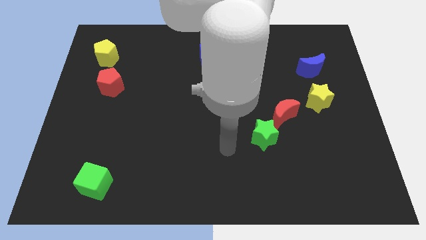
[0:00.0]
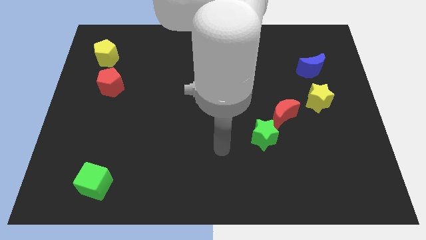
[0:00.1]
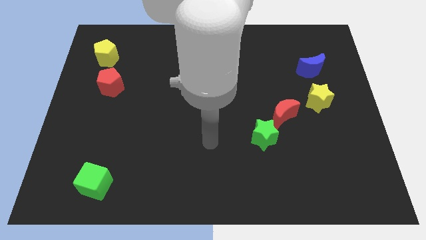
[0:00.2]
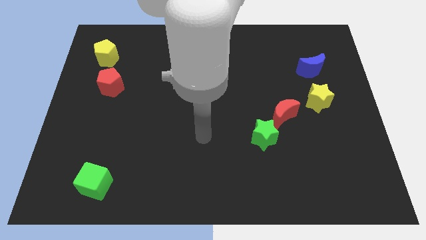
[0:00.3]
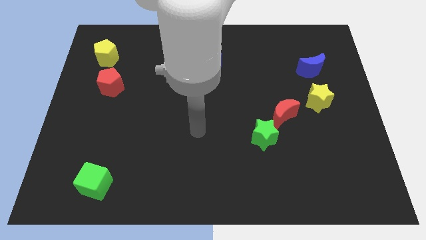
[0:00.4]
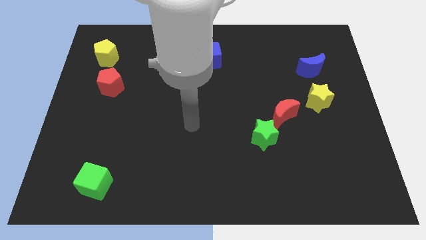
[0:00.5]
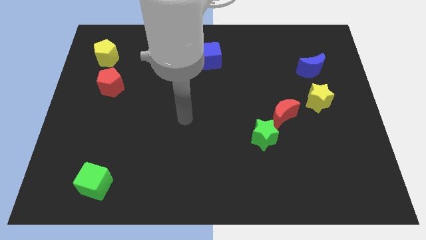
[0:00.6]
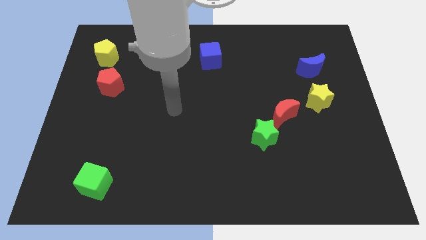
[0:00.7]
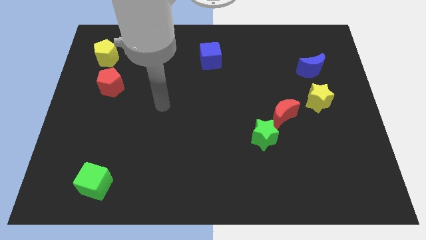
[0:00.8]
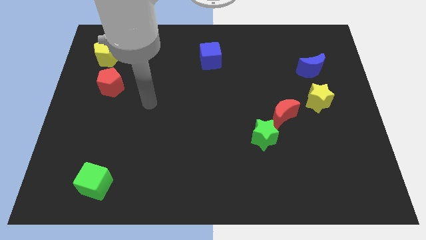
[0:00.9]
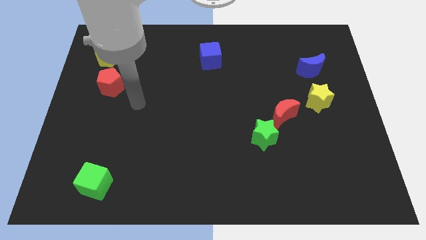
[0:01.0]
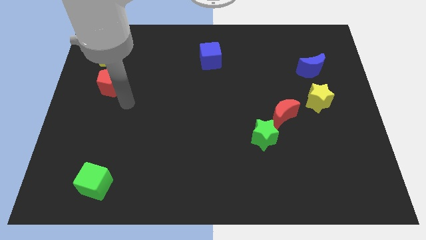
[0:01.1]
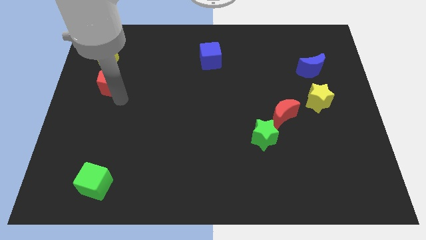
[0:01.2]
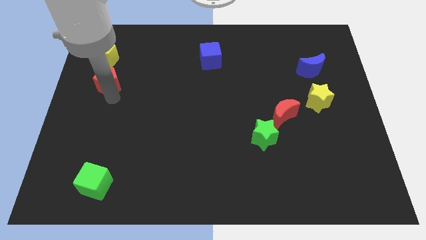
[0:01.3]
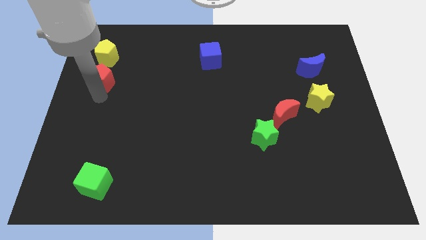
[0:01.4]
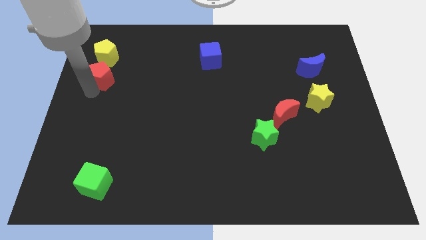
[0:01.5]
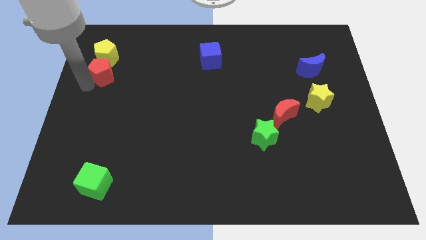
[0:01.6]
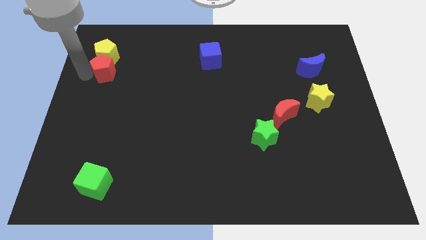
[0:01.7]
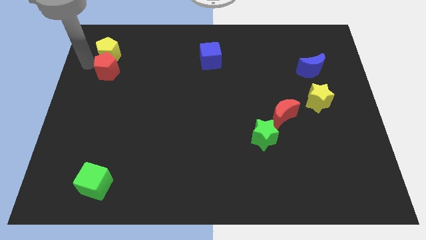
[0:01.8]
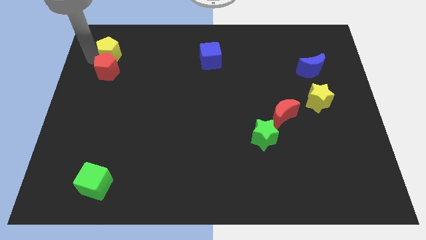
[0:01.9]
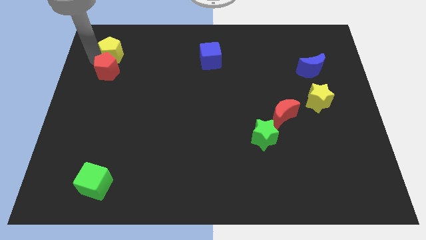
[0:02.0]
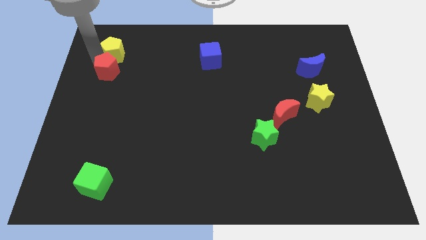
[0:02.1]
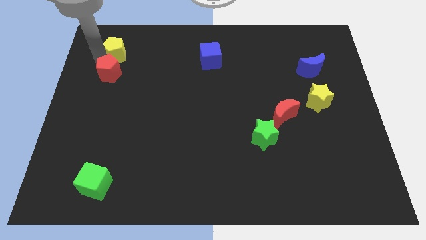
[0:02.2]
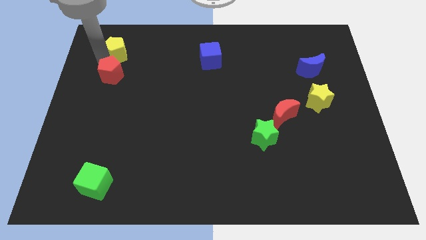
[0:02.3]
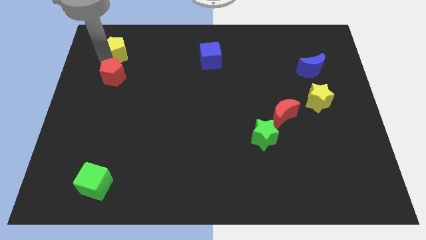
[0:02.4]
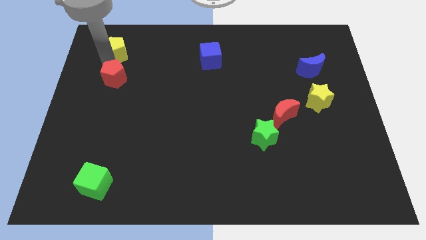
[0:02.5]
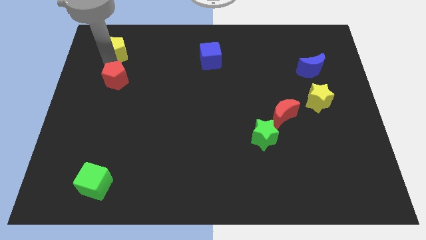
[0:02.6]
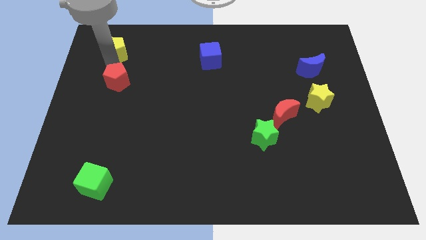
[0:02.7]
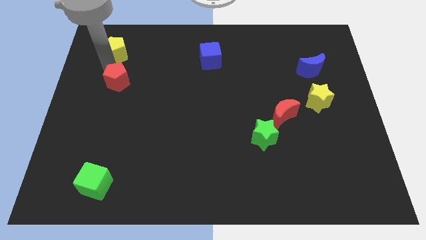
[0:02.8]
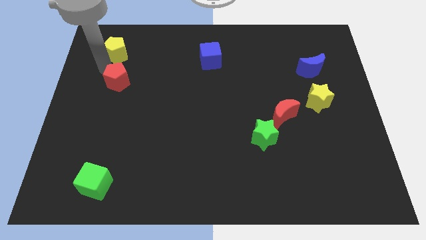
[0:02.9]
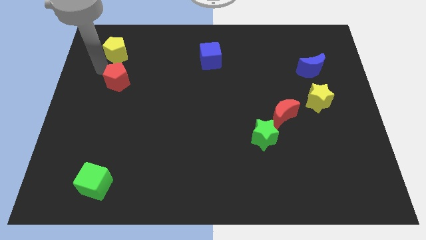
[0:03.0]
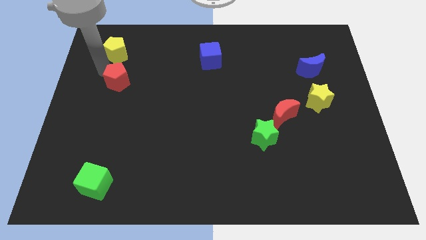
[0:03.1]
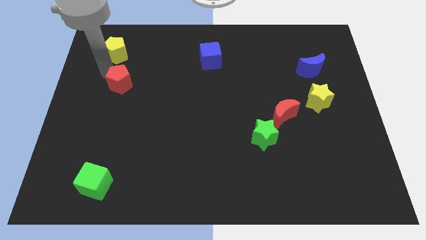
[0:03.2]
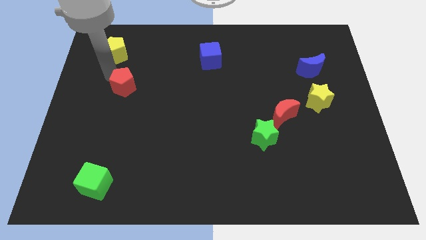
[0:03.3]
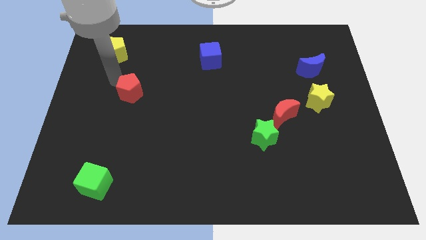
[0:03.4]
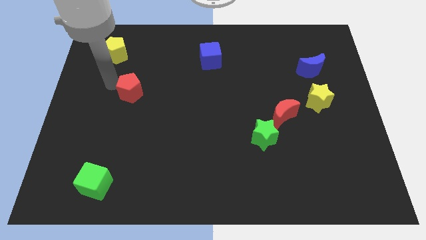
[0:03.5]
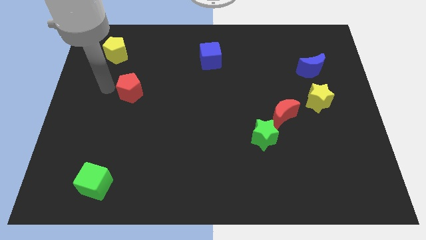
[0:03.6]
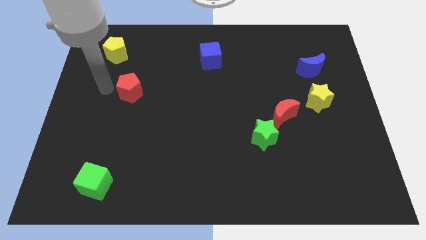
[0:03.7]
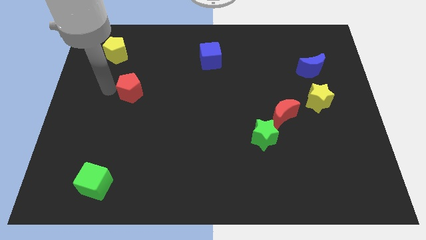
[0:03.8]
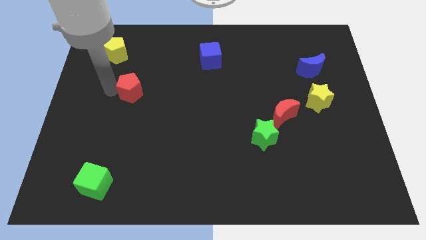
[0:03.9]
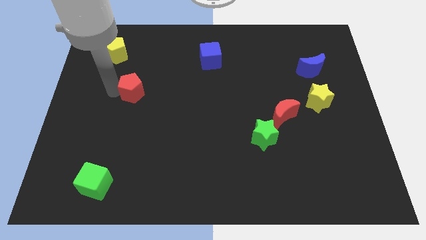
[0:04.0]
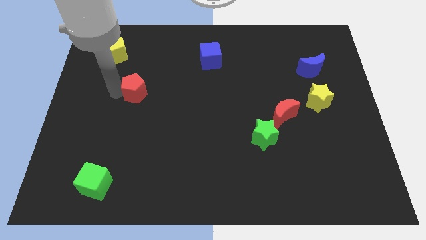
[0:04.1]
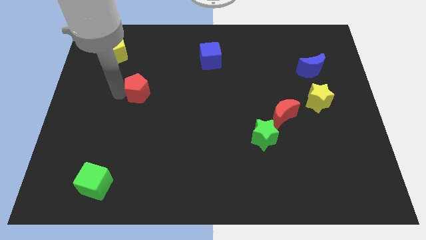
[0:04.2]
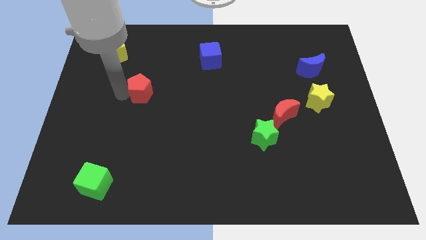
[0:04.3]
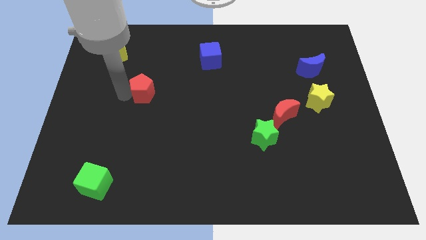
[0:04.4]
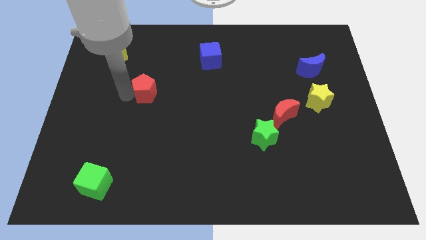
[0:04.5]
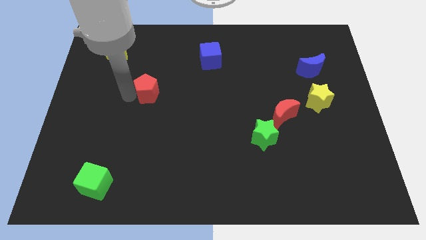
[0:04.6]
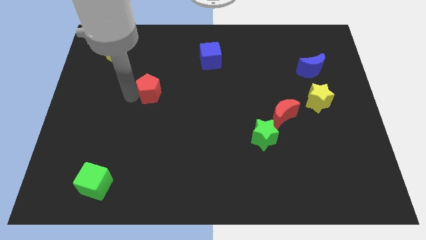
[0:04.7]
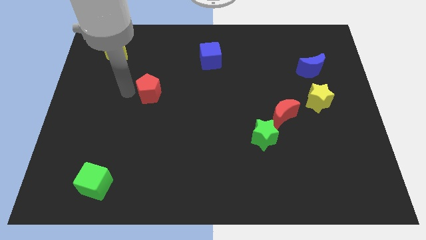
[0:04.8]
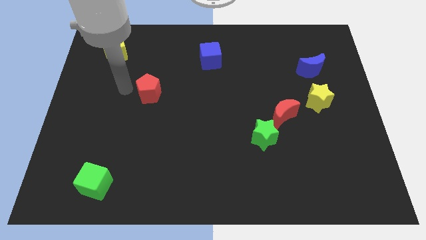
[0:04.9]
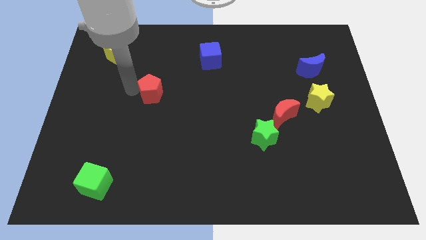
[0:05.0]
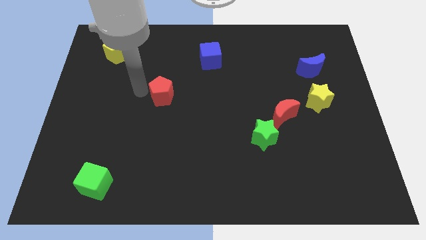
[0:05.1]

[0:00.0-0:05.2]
push the red pentagon to the center

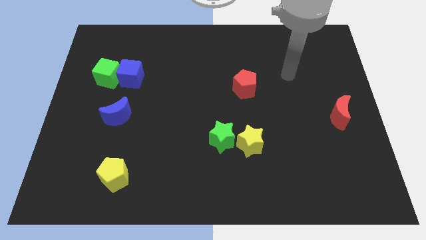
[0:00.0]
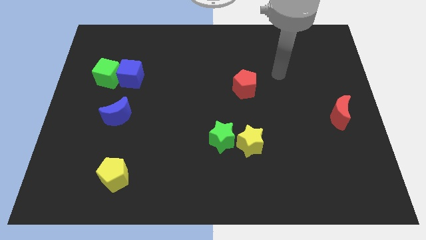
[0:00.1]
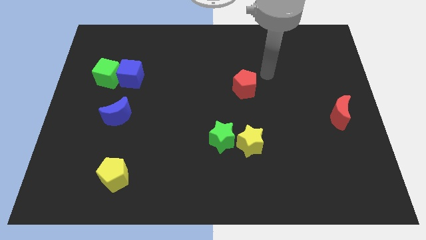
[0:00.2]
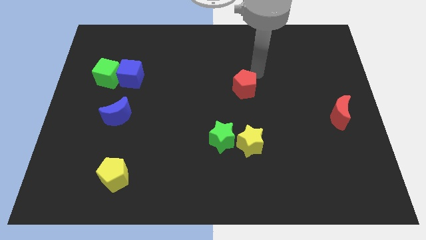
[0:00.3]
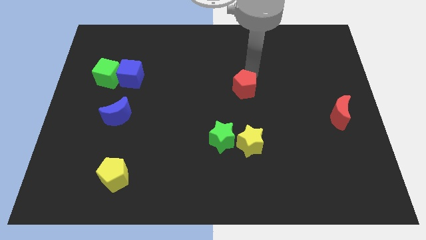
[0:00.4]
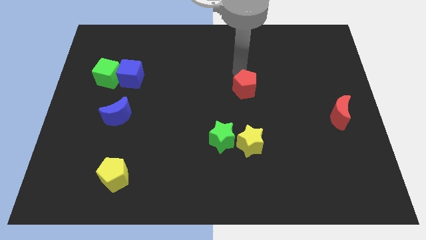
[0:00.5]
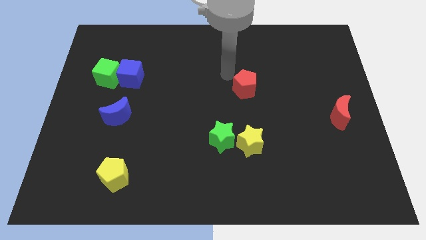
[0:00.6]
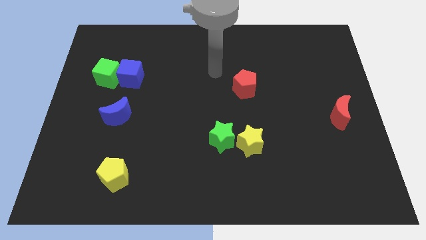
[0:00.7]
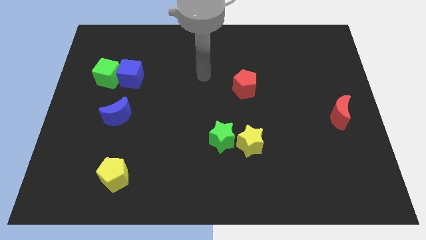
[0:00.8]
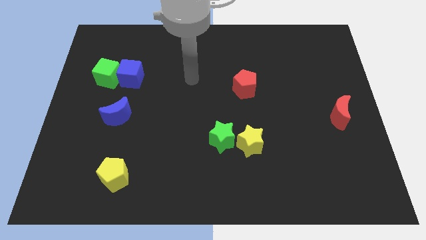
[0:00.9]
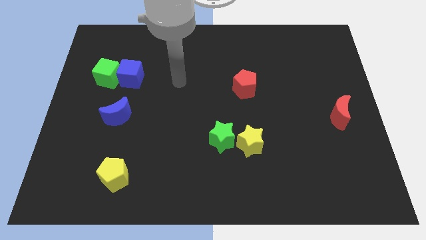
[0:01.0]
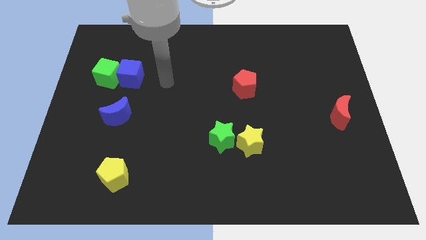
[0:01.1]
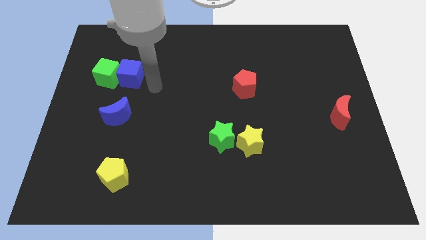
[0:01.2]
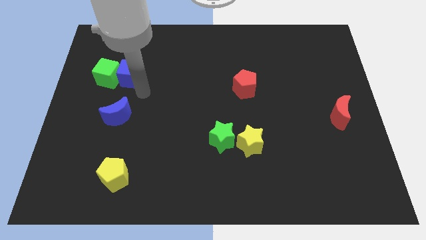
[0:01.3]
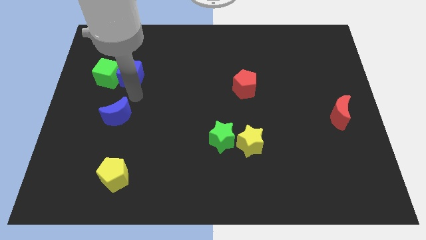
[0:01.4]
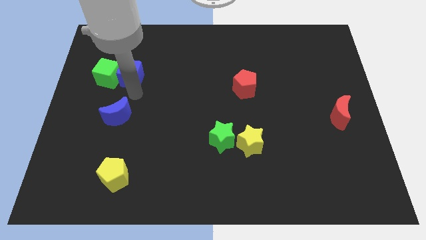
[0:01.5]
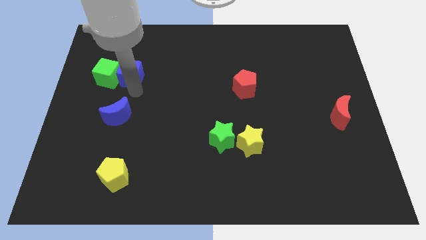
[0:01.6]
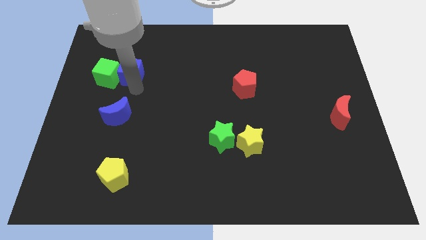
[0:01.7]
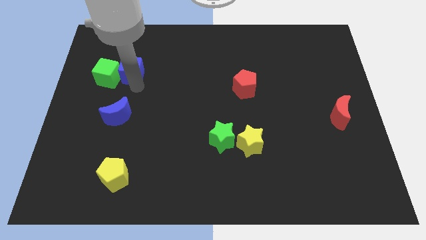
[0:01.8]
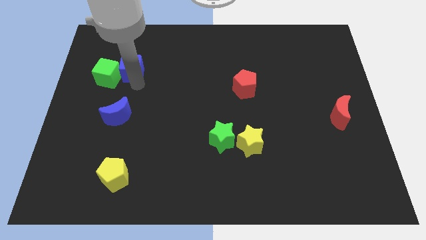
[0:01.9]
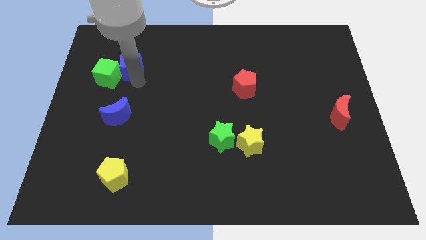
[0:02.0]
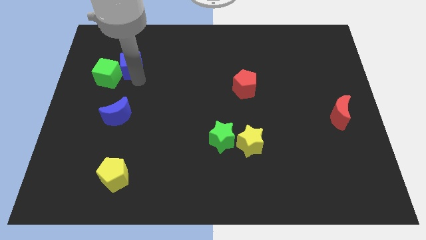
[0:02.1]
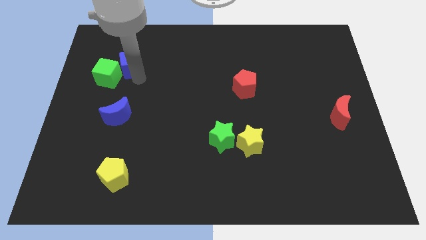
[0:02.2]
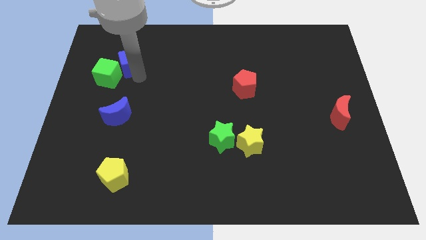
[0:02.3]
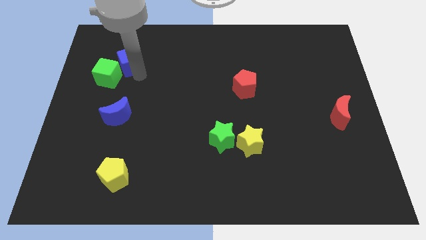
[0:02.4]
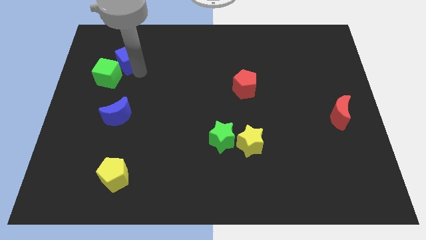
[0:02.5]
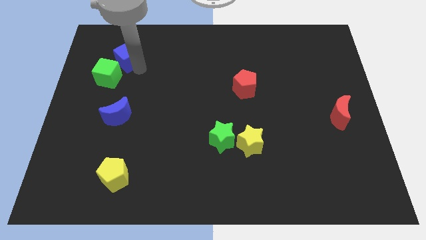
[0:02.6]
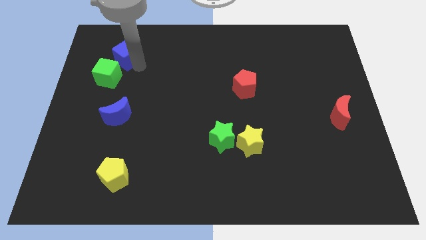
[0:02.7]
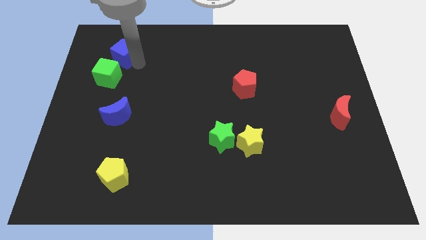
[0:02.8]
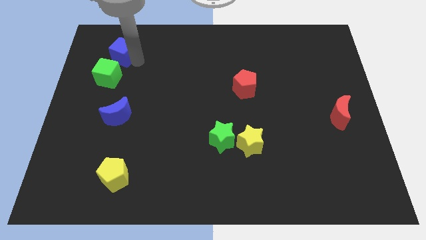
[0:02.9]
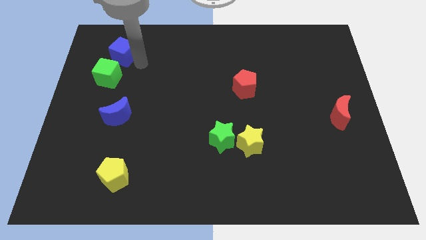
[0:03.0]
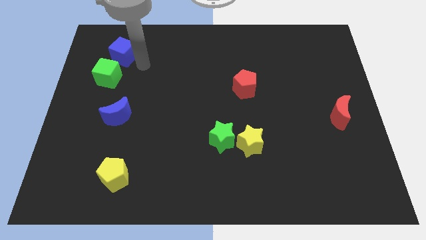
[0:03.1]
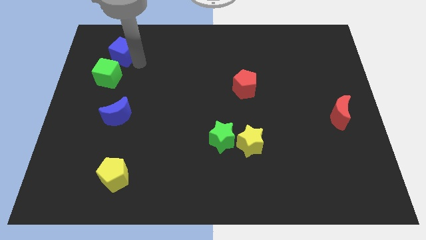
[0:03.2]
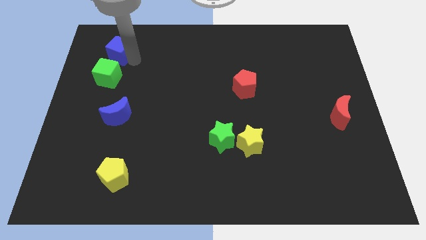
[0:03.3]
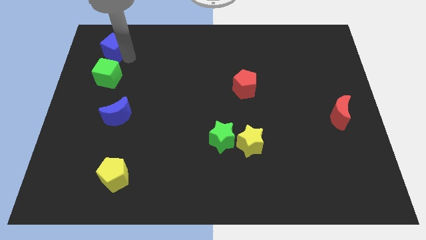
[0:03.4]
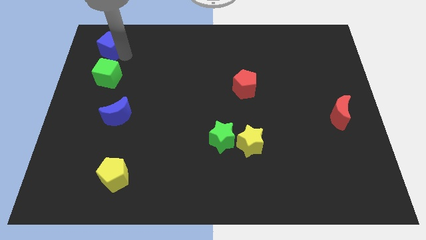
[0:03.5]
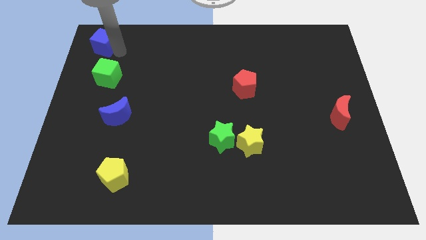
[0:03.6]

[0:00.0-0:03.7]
move the blue cube to the upper left corner
